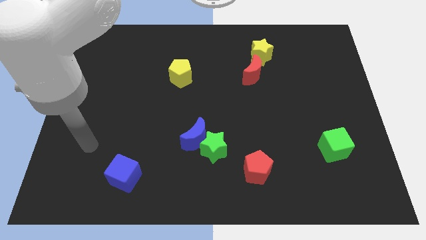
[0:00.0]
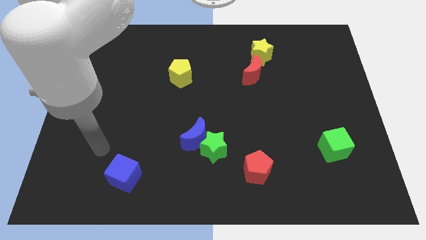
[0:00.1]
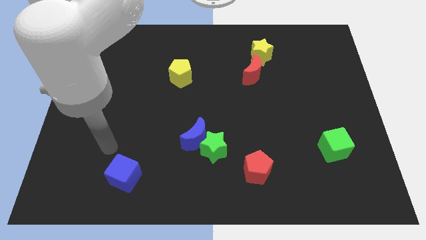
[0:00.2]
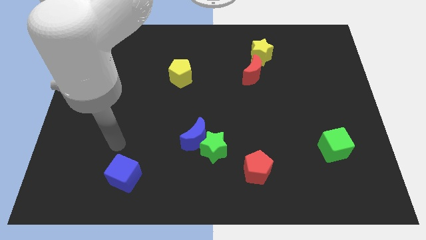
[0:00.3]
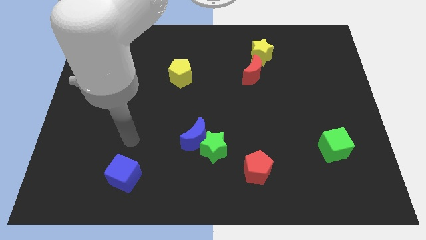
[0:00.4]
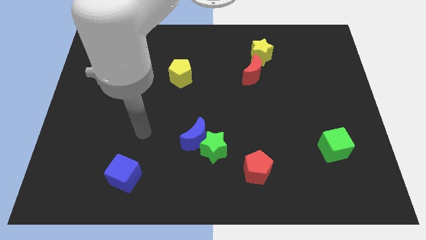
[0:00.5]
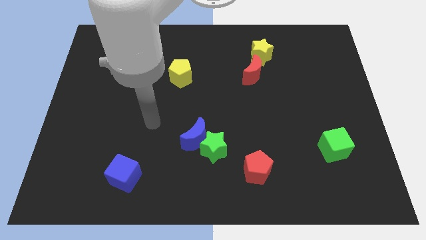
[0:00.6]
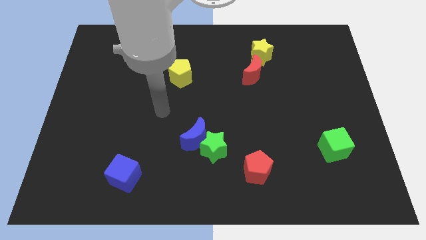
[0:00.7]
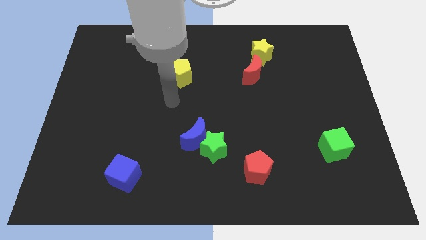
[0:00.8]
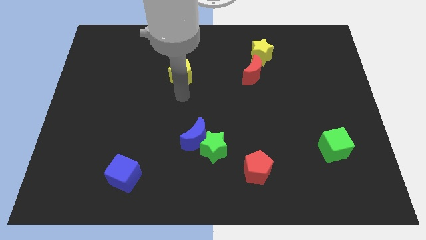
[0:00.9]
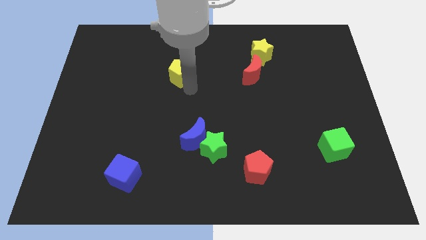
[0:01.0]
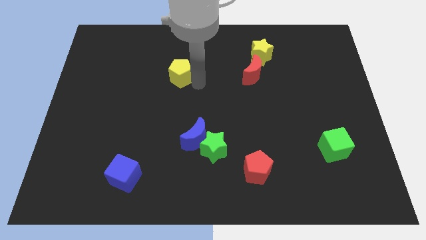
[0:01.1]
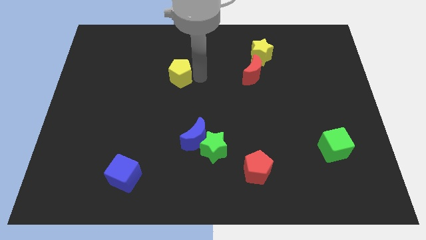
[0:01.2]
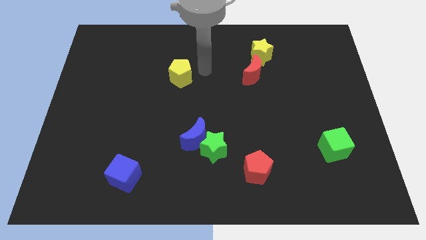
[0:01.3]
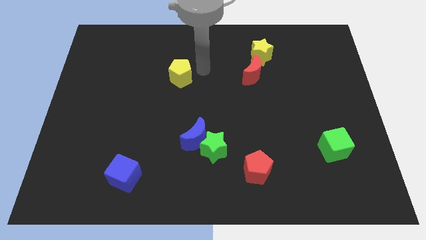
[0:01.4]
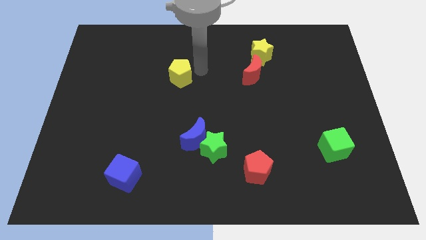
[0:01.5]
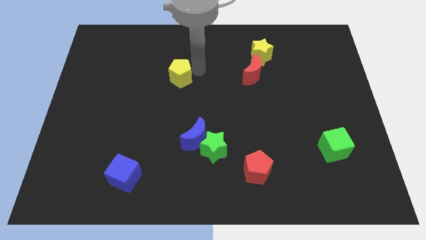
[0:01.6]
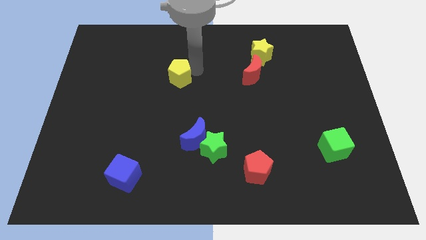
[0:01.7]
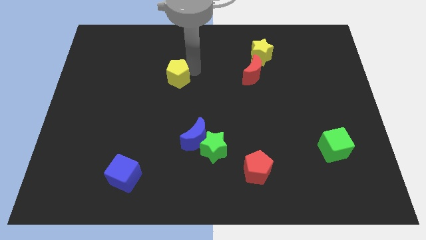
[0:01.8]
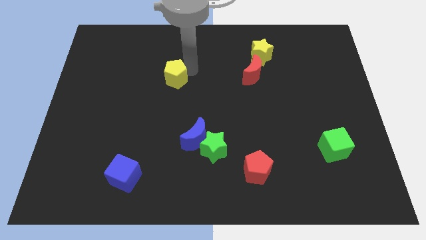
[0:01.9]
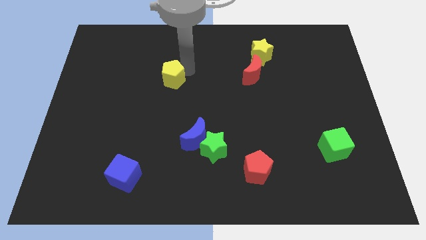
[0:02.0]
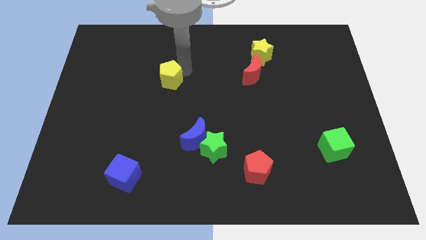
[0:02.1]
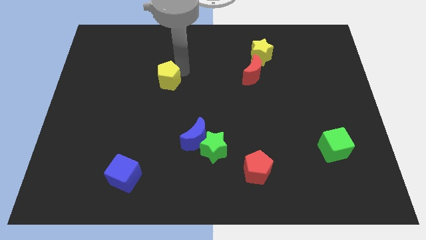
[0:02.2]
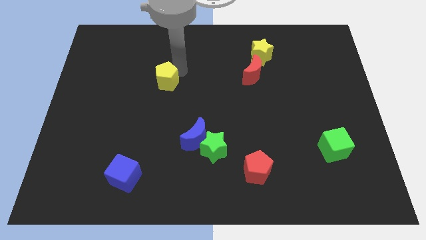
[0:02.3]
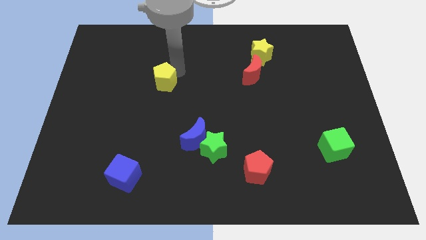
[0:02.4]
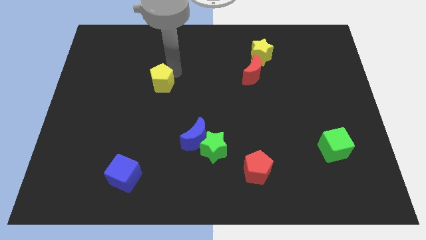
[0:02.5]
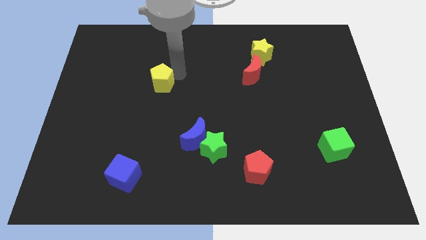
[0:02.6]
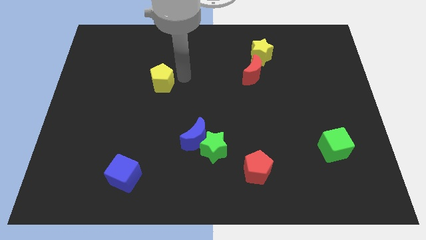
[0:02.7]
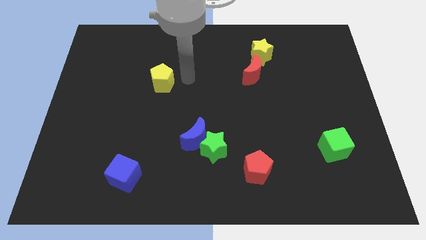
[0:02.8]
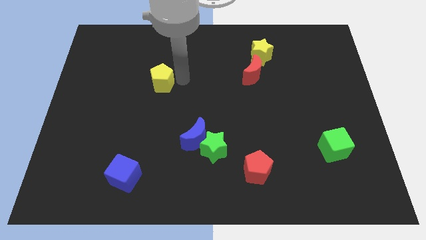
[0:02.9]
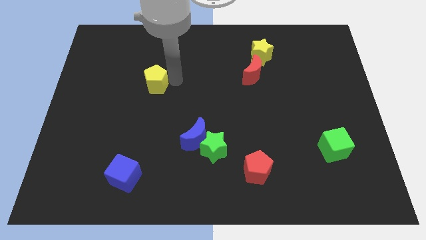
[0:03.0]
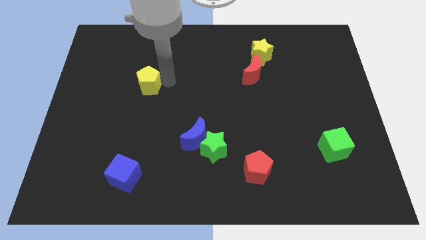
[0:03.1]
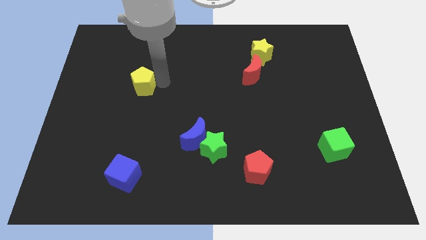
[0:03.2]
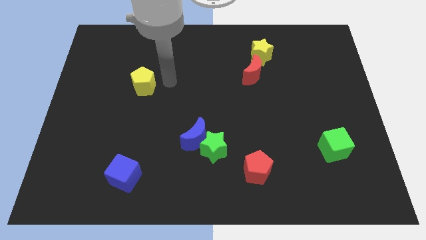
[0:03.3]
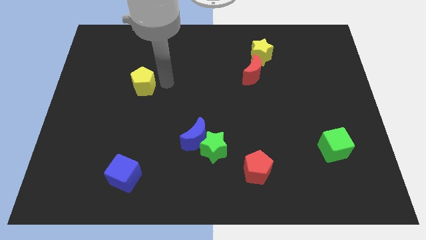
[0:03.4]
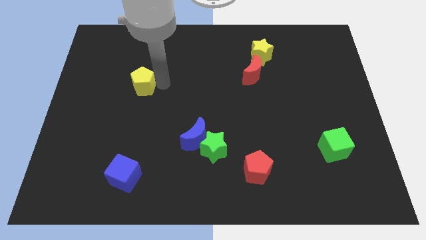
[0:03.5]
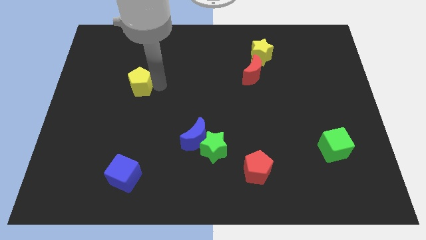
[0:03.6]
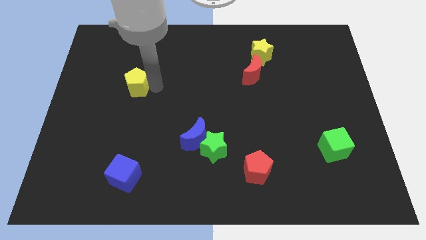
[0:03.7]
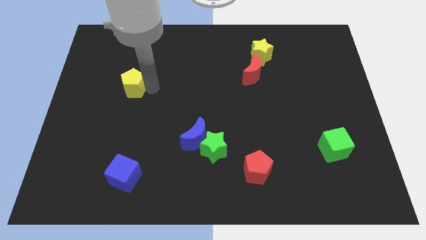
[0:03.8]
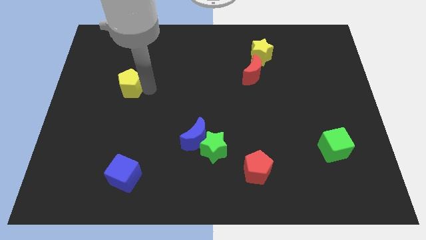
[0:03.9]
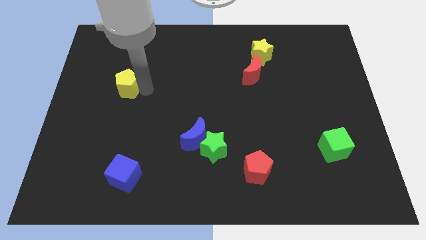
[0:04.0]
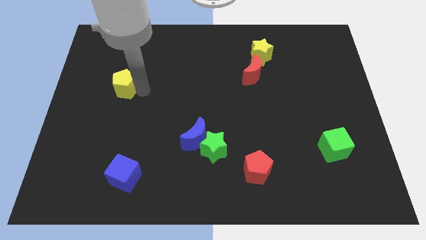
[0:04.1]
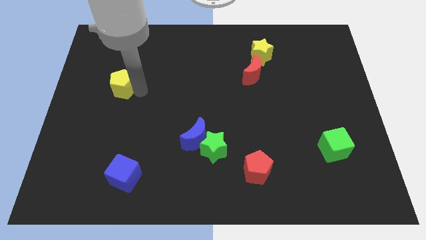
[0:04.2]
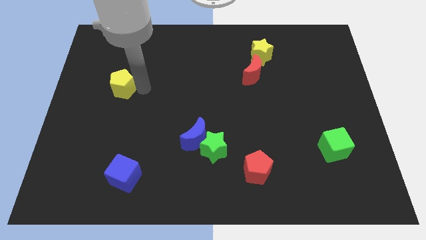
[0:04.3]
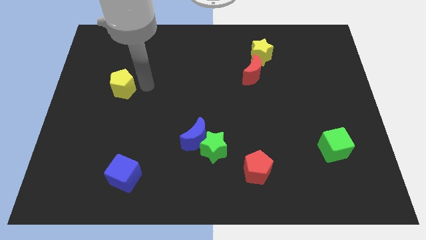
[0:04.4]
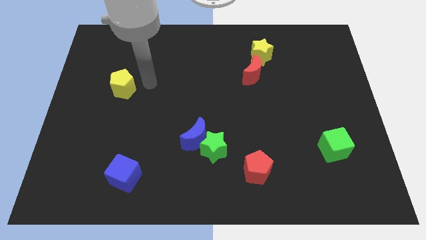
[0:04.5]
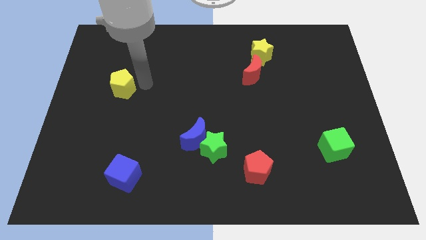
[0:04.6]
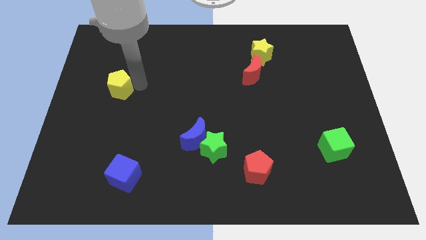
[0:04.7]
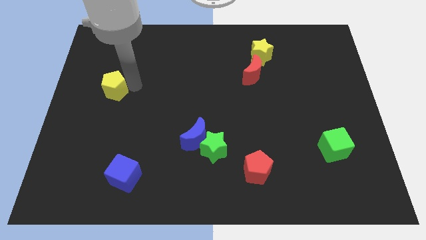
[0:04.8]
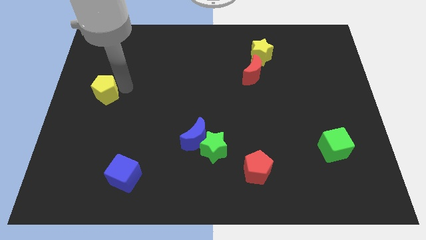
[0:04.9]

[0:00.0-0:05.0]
put the yellow pentagon to the left side

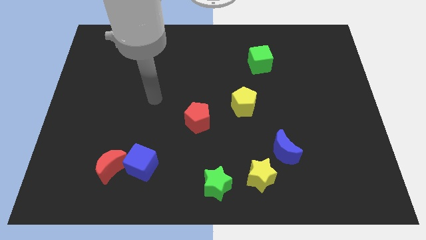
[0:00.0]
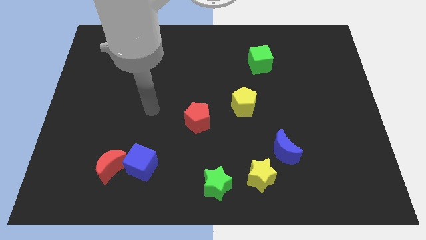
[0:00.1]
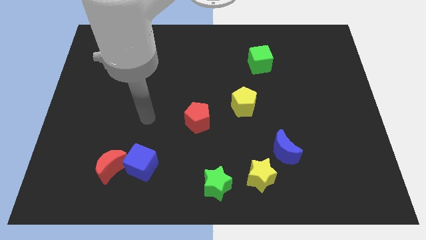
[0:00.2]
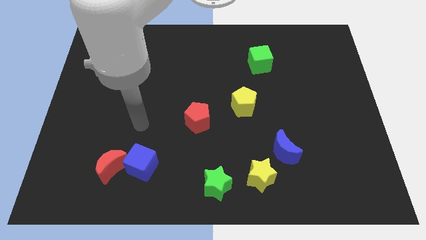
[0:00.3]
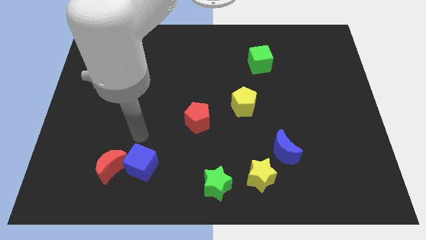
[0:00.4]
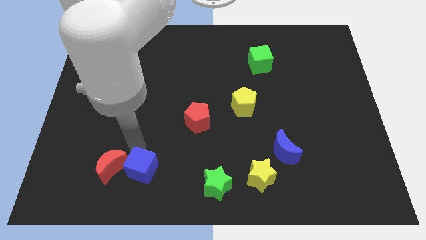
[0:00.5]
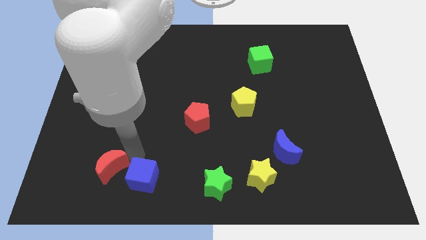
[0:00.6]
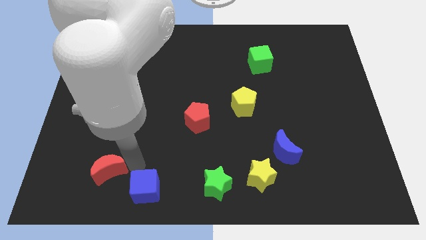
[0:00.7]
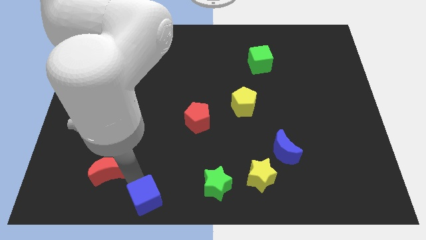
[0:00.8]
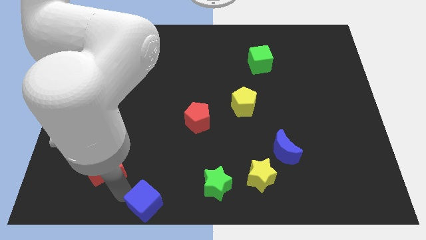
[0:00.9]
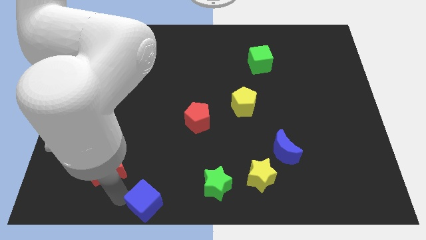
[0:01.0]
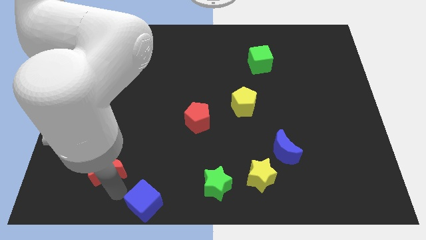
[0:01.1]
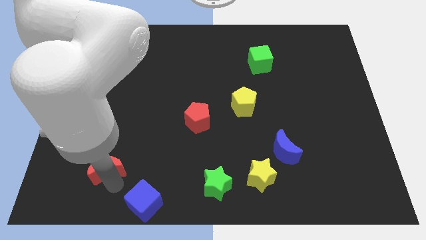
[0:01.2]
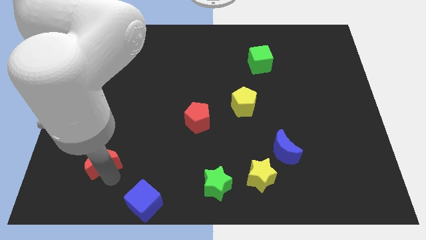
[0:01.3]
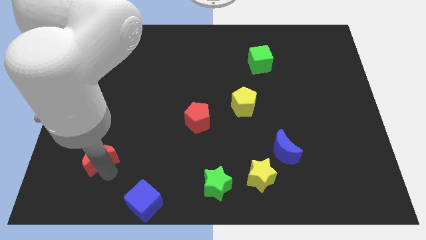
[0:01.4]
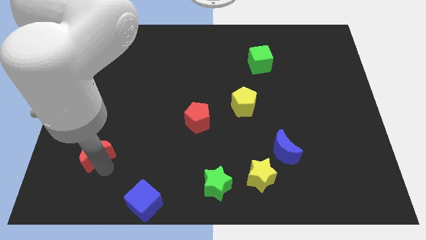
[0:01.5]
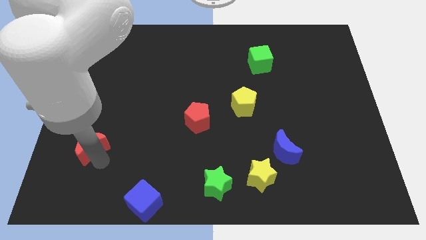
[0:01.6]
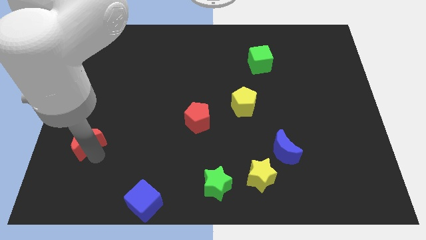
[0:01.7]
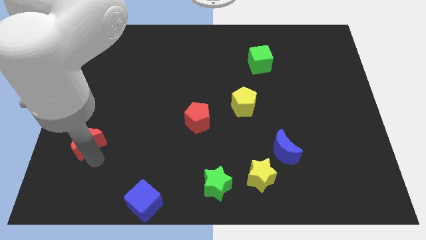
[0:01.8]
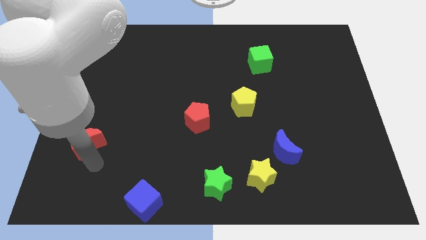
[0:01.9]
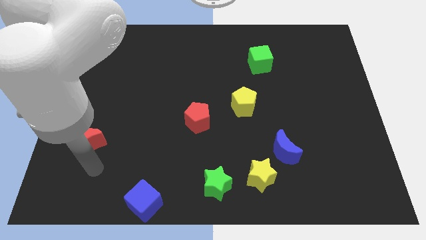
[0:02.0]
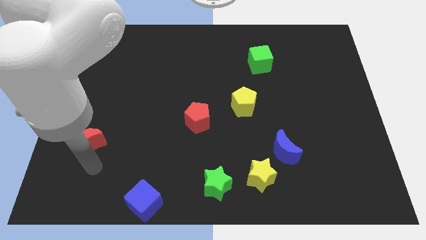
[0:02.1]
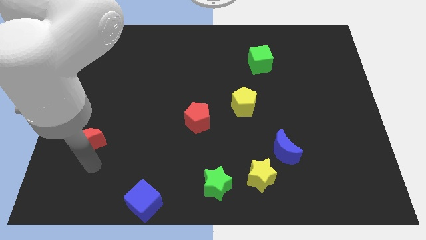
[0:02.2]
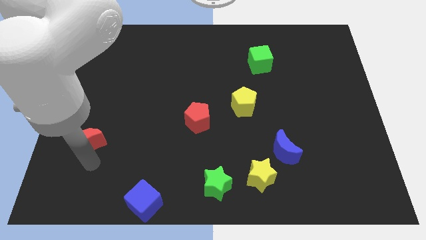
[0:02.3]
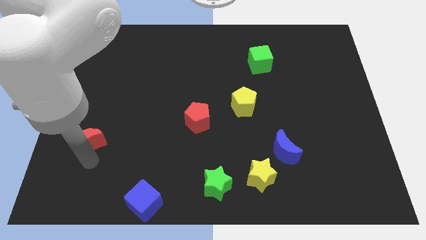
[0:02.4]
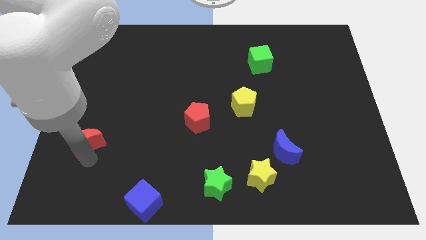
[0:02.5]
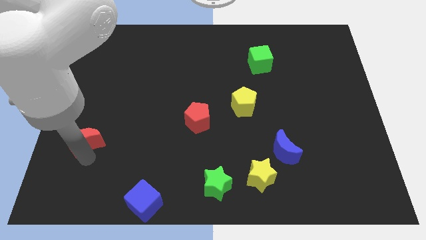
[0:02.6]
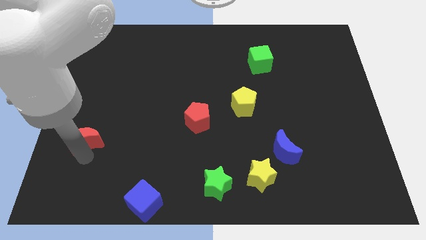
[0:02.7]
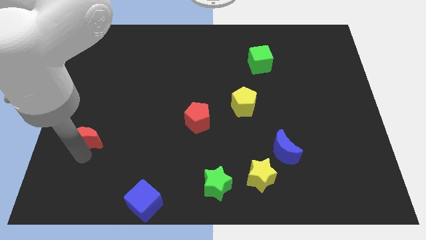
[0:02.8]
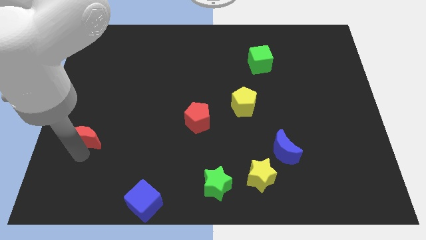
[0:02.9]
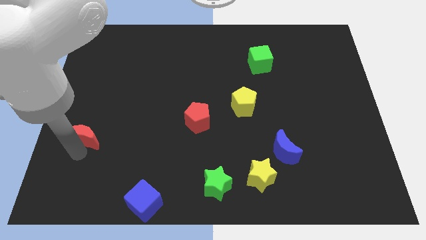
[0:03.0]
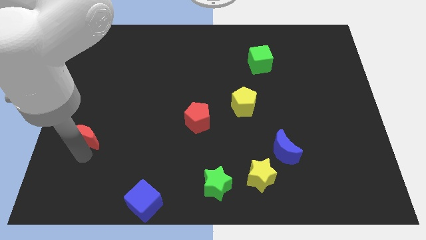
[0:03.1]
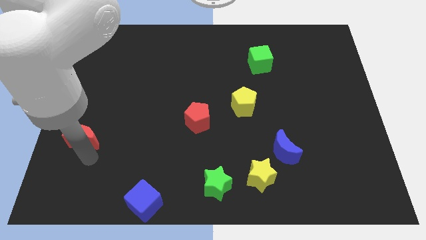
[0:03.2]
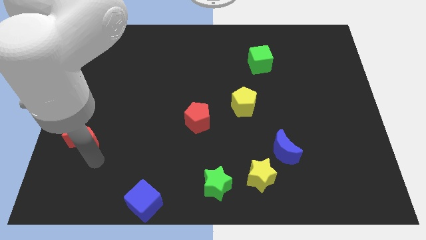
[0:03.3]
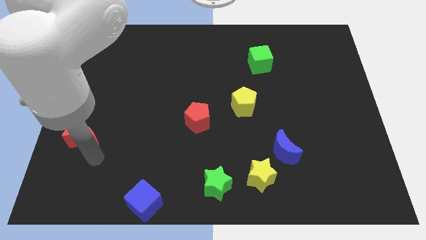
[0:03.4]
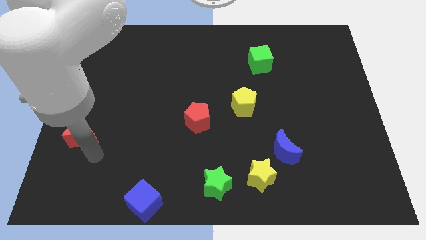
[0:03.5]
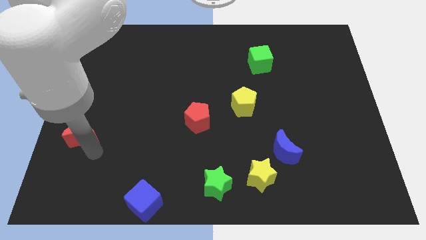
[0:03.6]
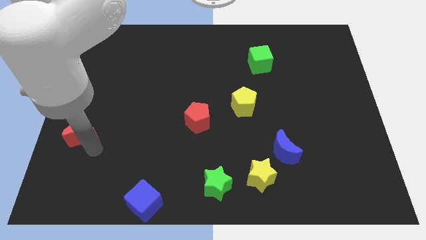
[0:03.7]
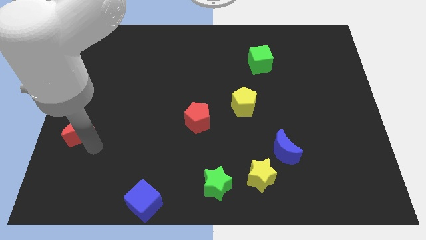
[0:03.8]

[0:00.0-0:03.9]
slide the red moon to the left side of the board
